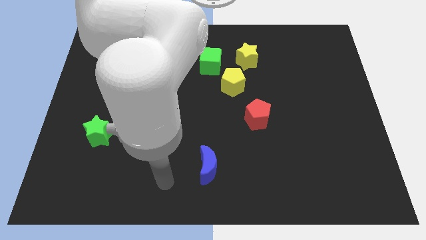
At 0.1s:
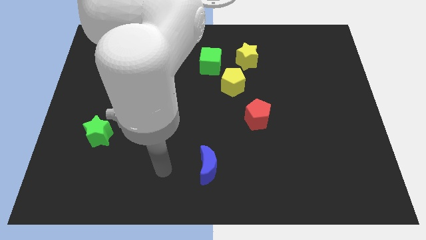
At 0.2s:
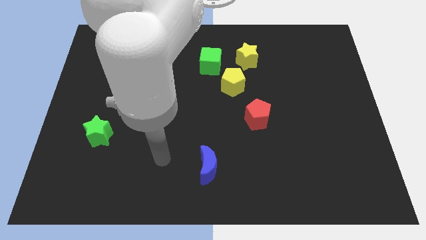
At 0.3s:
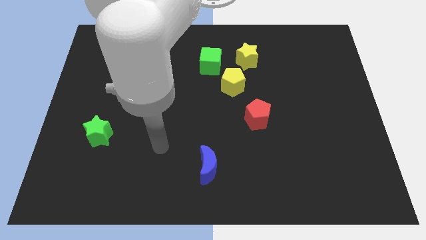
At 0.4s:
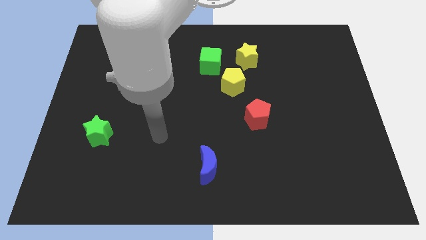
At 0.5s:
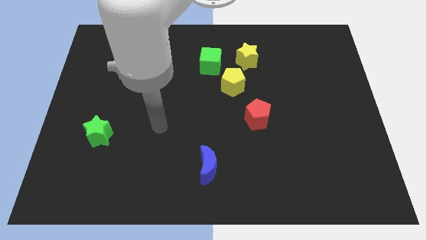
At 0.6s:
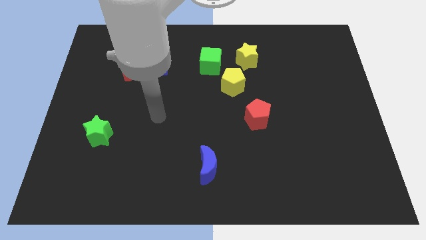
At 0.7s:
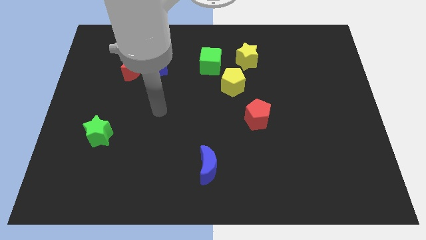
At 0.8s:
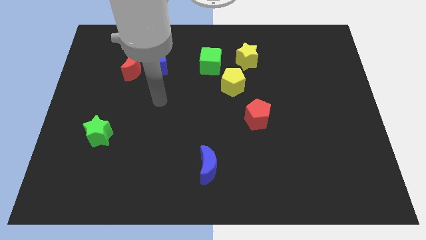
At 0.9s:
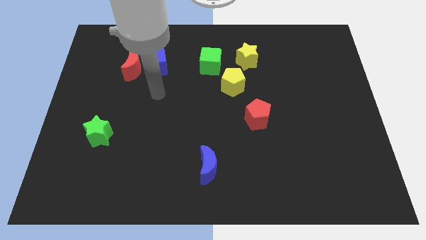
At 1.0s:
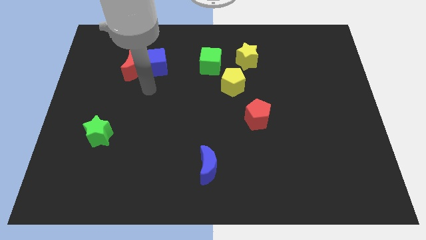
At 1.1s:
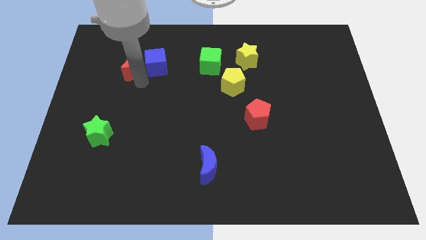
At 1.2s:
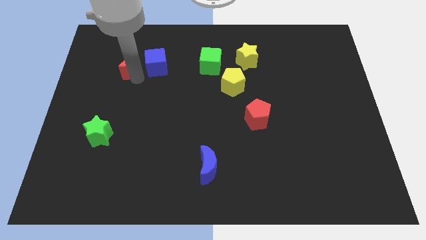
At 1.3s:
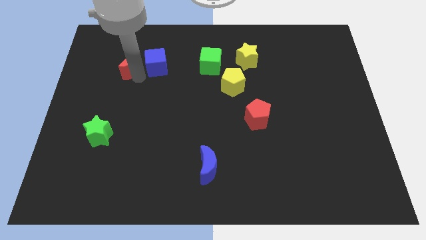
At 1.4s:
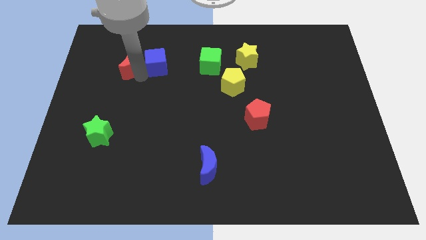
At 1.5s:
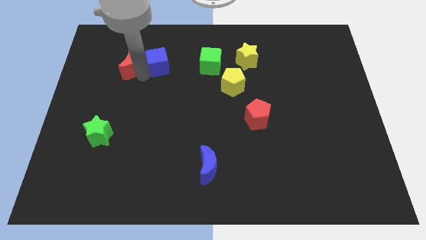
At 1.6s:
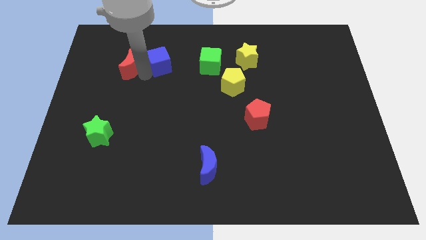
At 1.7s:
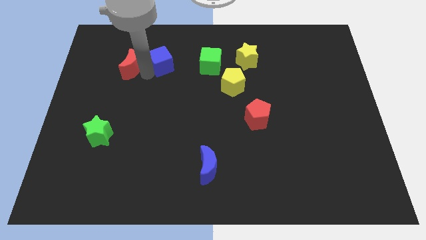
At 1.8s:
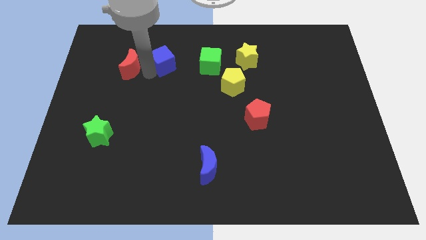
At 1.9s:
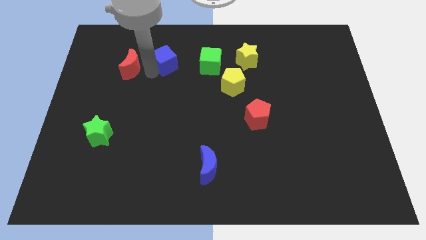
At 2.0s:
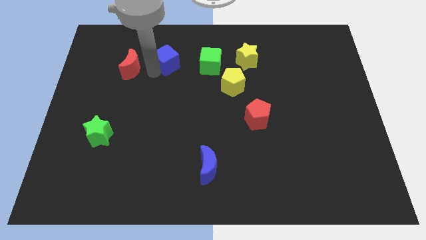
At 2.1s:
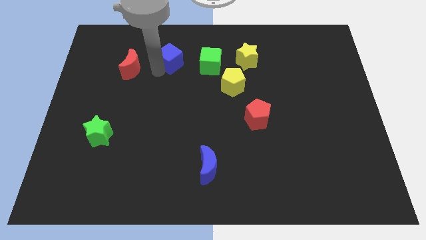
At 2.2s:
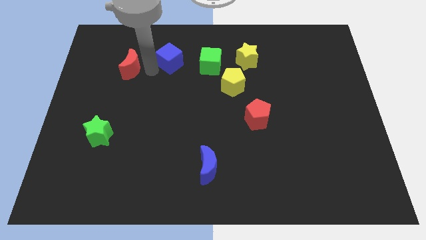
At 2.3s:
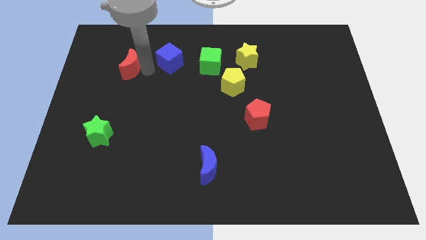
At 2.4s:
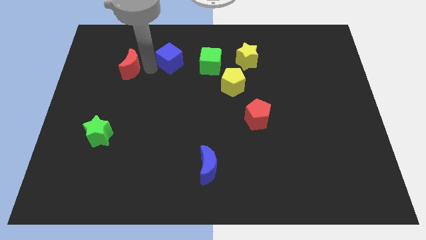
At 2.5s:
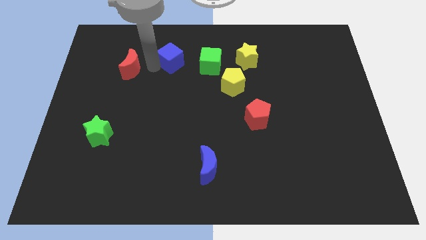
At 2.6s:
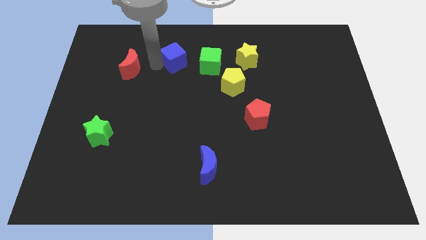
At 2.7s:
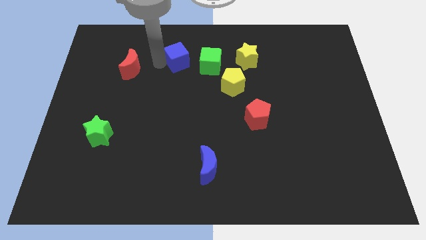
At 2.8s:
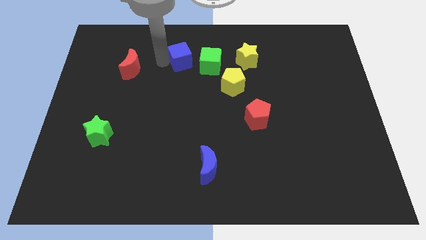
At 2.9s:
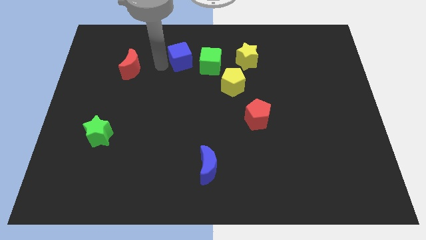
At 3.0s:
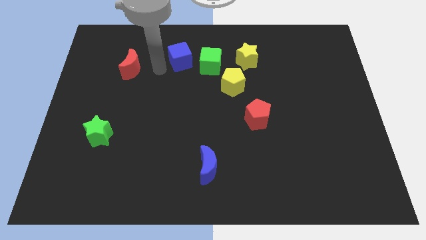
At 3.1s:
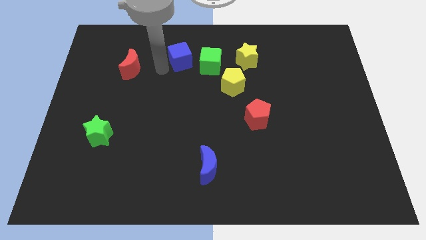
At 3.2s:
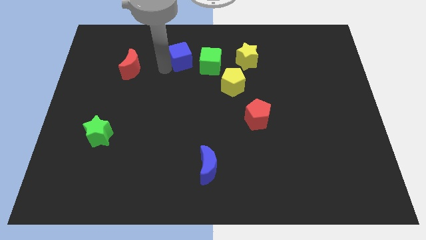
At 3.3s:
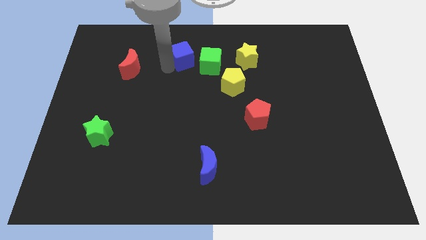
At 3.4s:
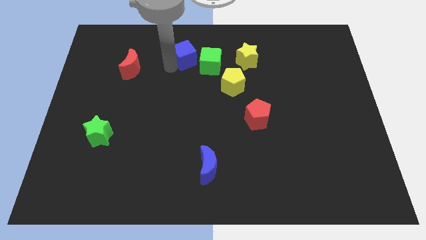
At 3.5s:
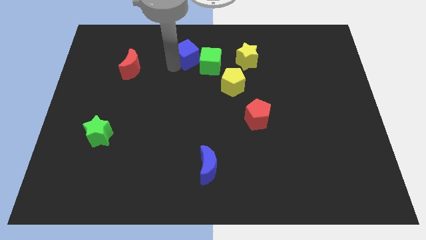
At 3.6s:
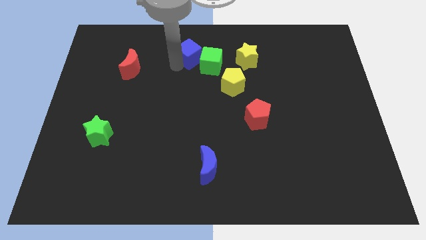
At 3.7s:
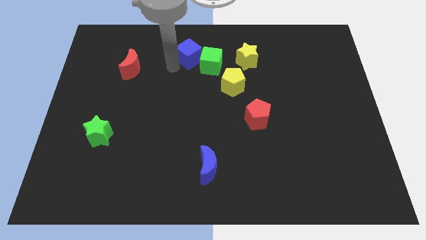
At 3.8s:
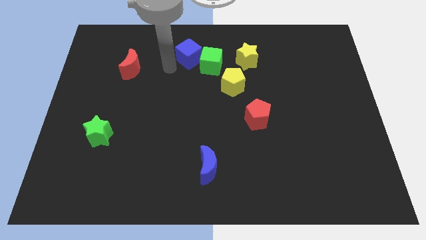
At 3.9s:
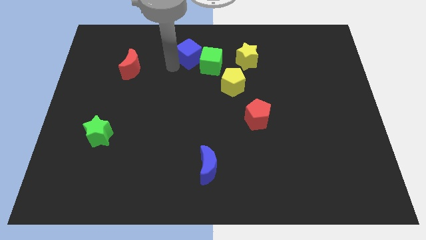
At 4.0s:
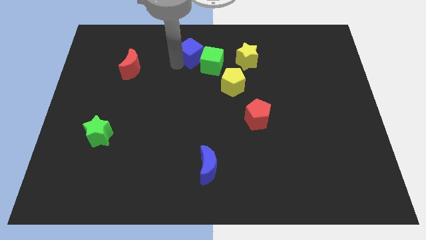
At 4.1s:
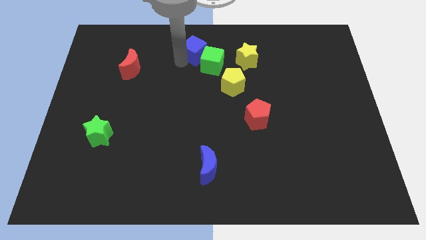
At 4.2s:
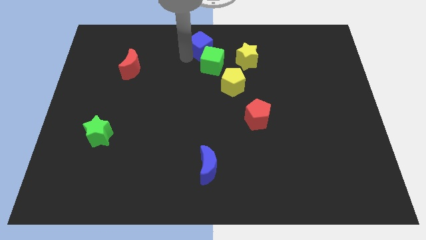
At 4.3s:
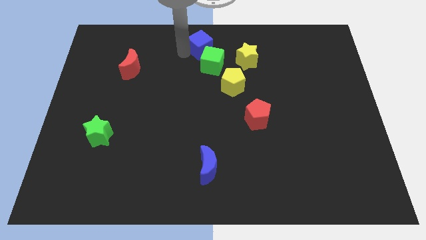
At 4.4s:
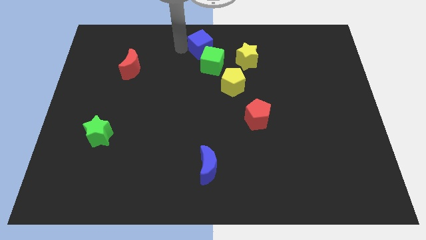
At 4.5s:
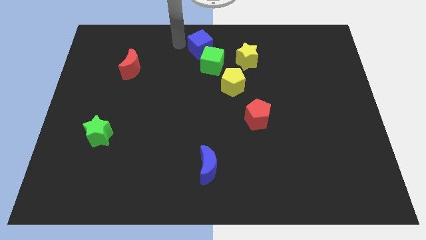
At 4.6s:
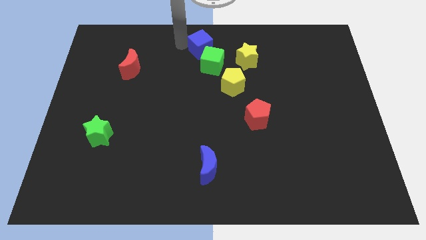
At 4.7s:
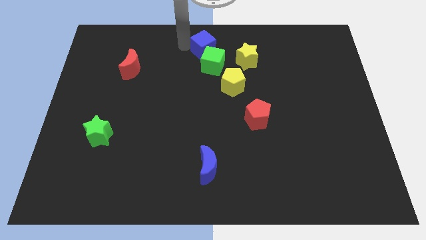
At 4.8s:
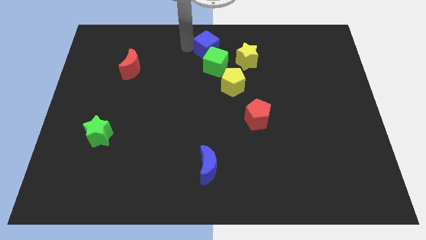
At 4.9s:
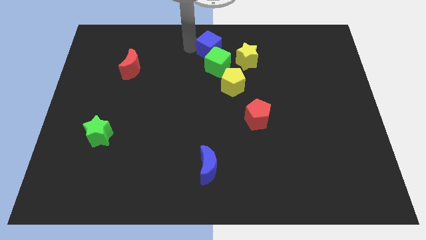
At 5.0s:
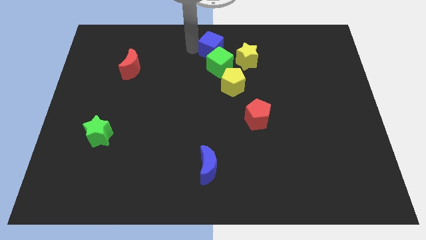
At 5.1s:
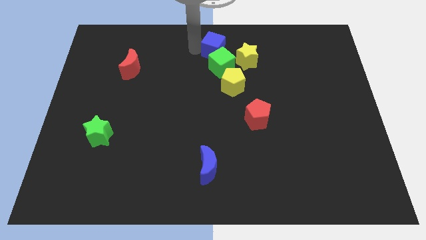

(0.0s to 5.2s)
slide the blue cube to the top of the yellow pentagon

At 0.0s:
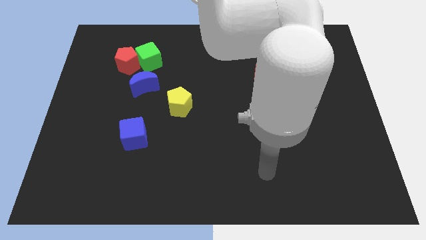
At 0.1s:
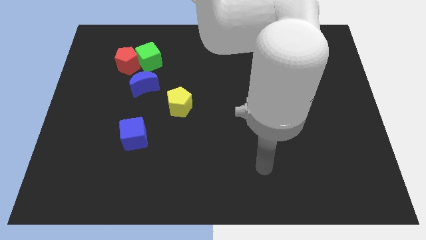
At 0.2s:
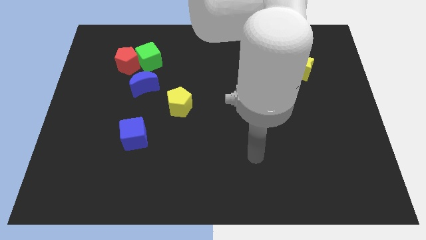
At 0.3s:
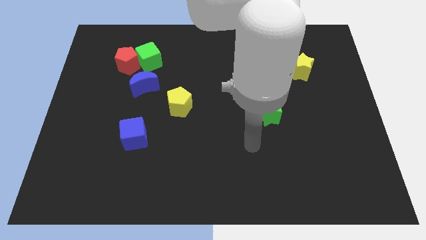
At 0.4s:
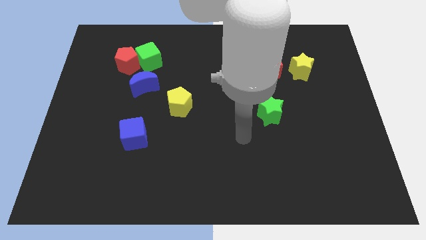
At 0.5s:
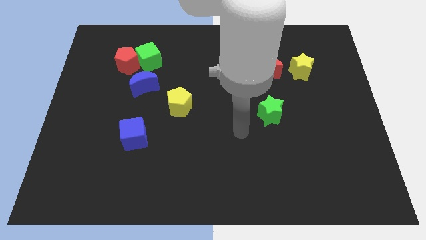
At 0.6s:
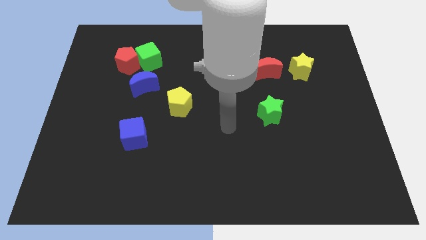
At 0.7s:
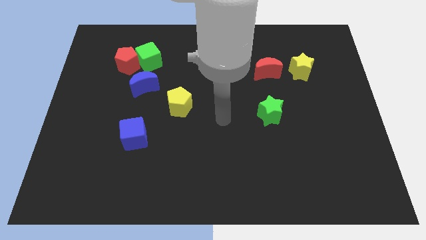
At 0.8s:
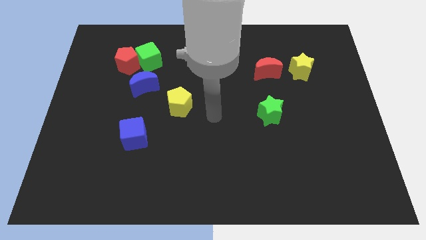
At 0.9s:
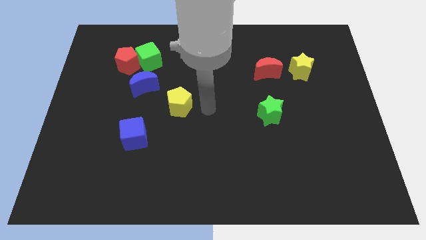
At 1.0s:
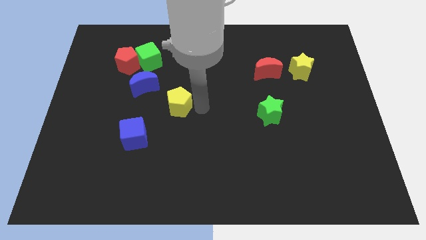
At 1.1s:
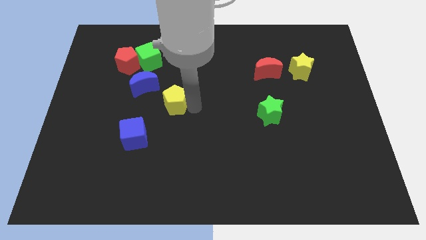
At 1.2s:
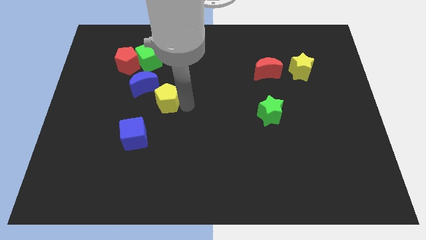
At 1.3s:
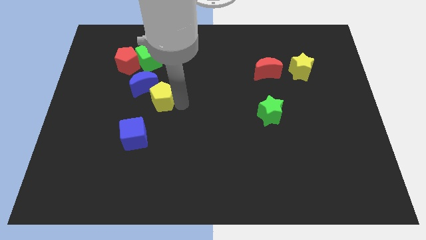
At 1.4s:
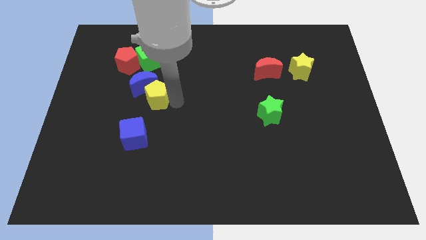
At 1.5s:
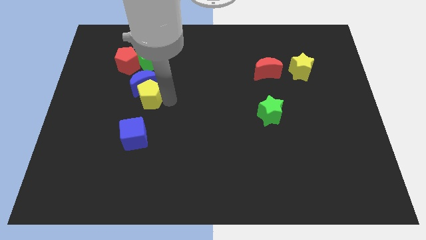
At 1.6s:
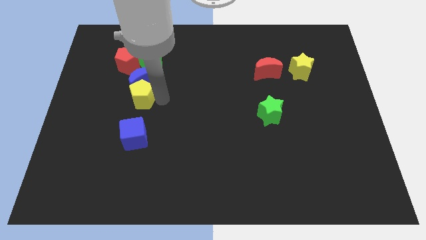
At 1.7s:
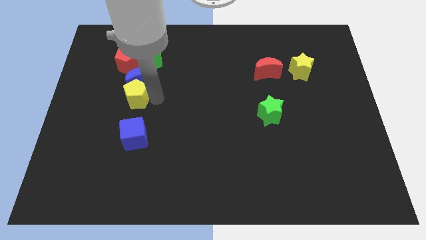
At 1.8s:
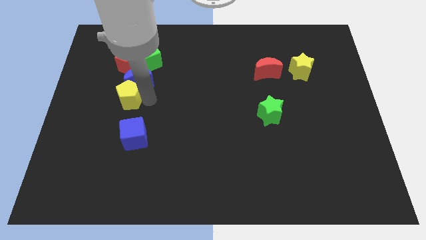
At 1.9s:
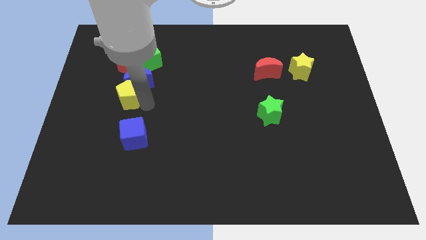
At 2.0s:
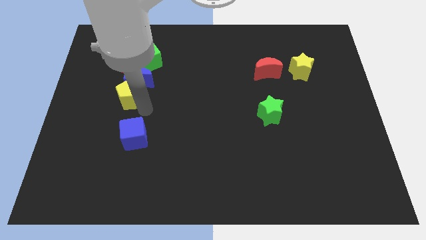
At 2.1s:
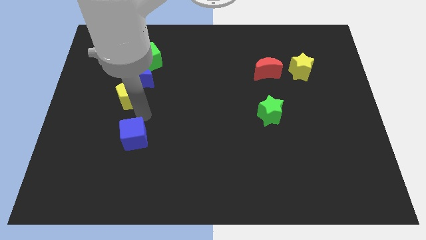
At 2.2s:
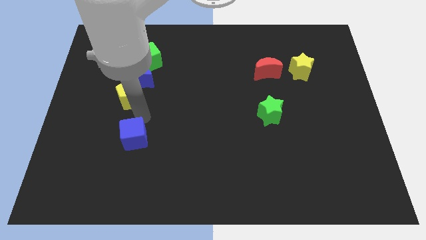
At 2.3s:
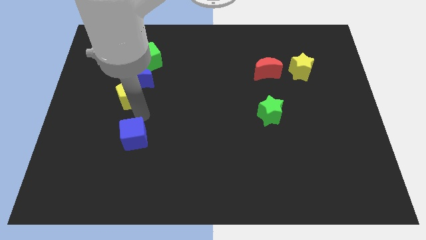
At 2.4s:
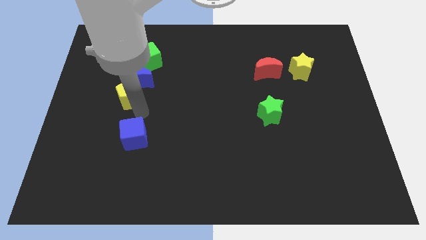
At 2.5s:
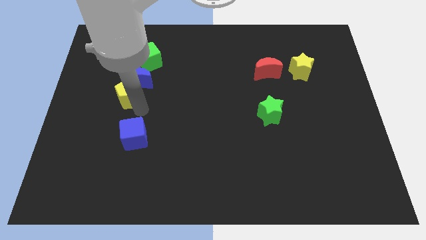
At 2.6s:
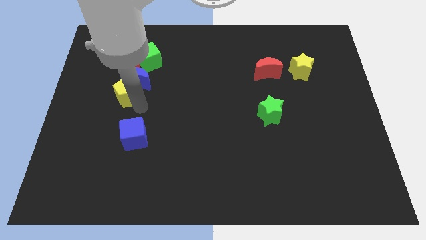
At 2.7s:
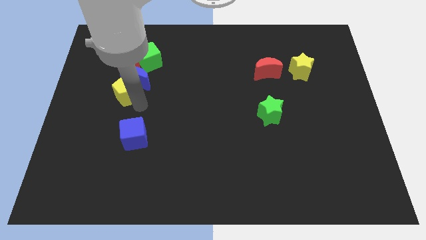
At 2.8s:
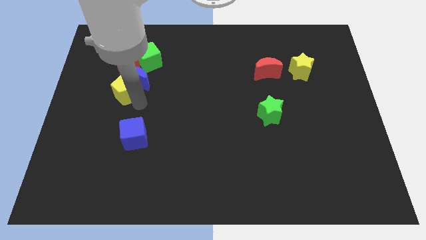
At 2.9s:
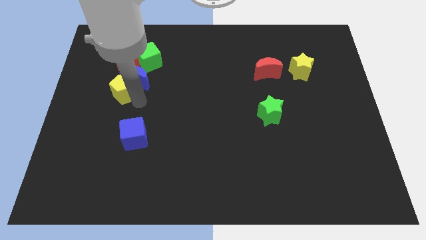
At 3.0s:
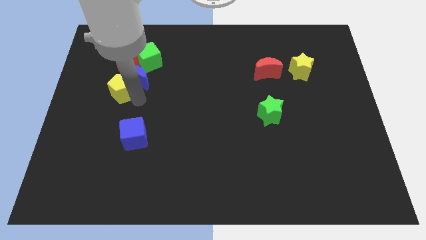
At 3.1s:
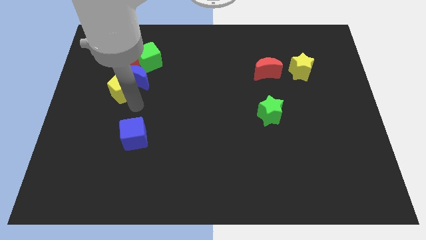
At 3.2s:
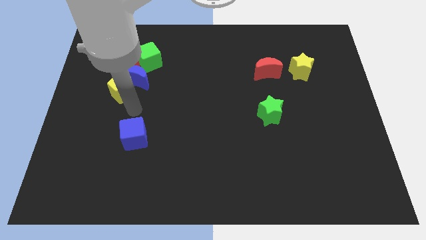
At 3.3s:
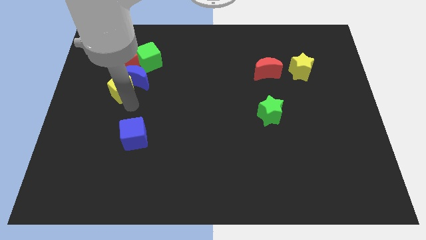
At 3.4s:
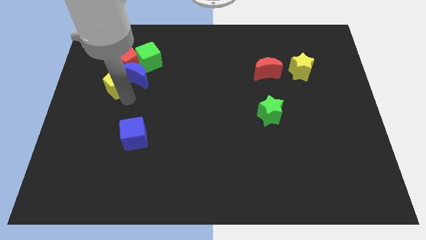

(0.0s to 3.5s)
slide the yellow pentagon to the bottom left side of the green cube
